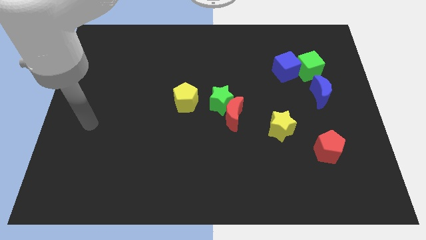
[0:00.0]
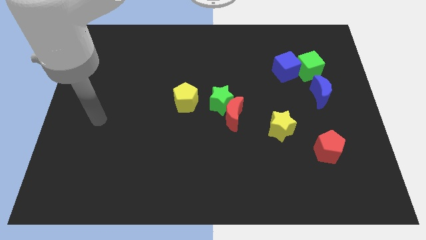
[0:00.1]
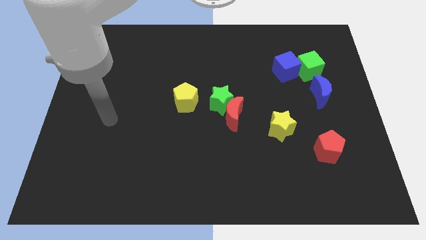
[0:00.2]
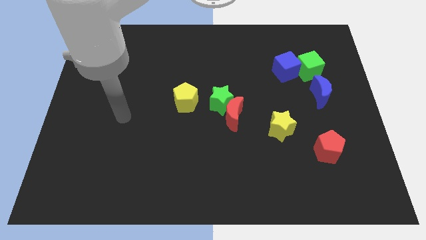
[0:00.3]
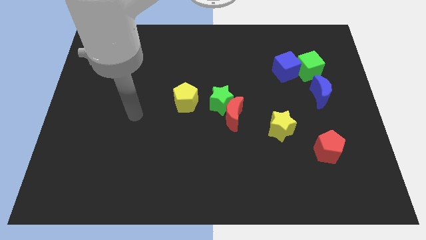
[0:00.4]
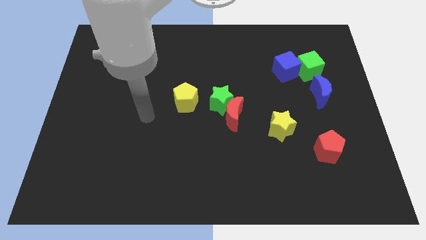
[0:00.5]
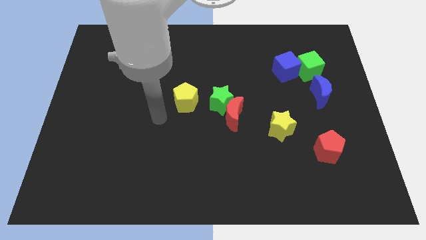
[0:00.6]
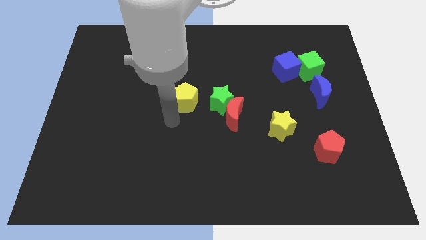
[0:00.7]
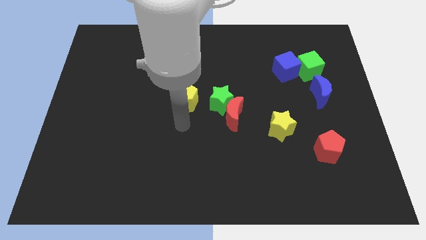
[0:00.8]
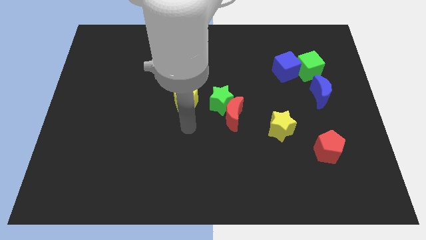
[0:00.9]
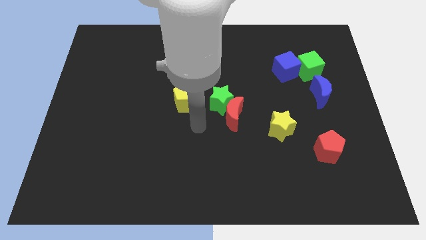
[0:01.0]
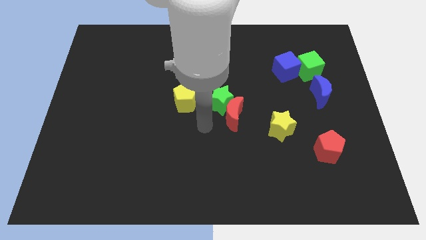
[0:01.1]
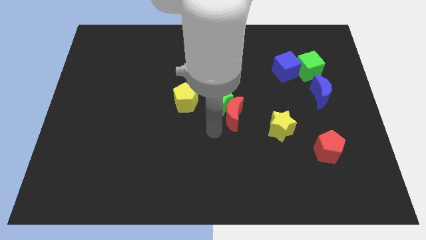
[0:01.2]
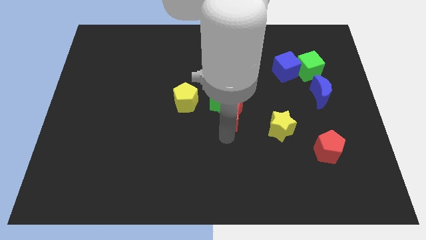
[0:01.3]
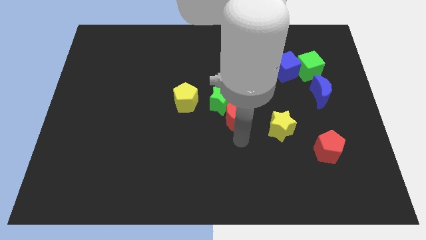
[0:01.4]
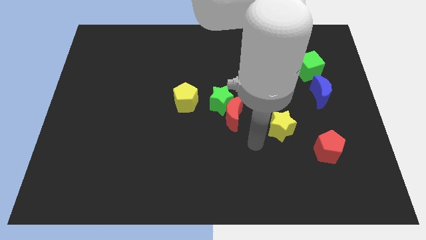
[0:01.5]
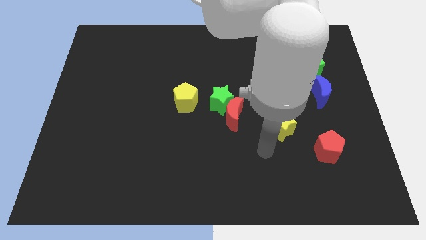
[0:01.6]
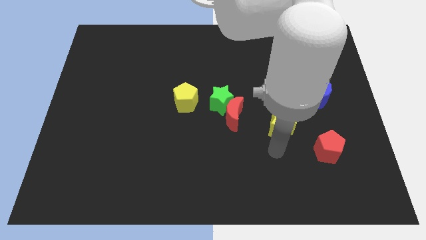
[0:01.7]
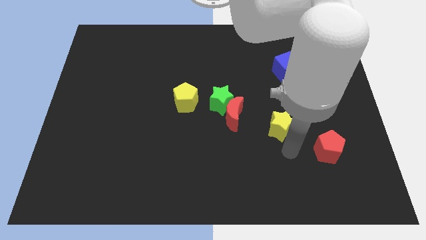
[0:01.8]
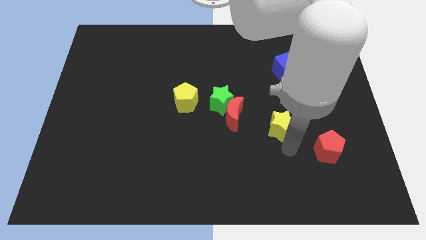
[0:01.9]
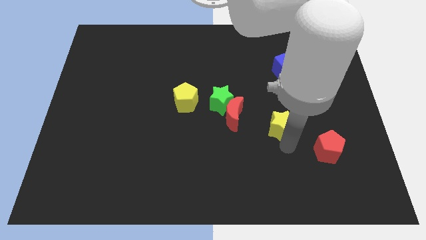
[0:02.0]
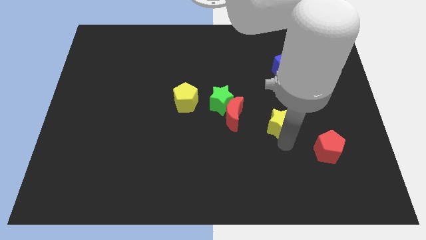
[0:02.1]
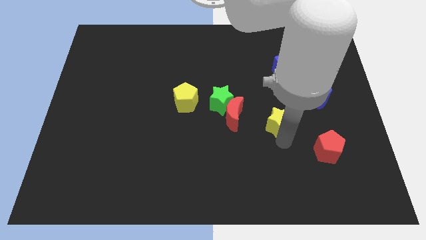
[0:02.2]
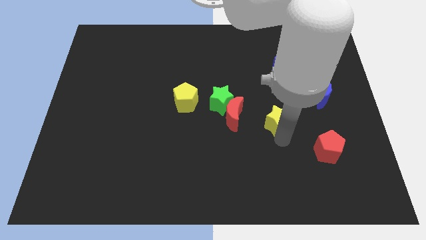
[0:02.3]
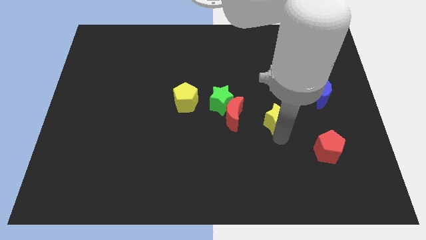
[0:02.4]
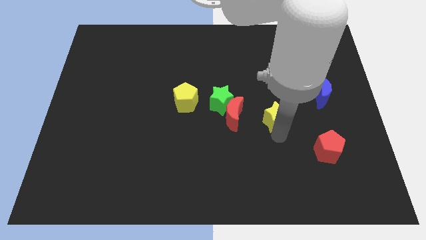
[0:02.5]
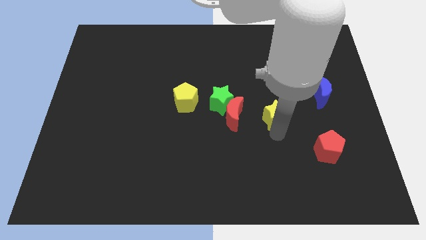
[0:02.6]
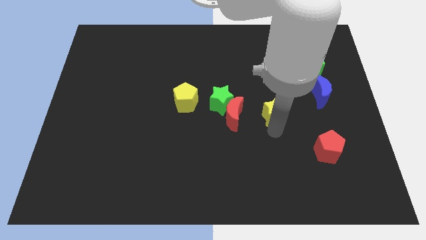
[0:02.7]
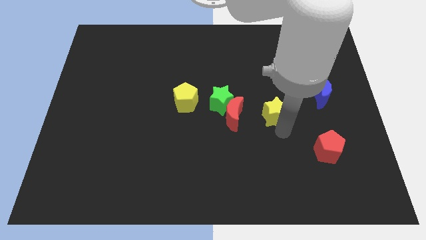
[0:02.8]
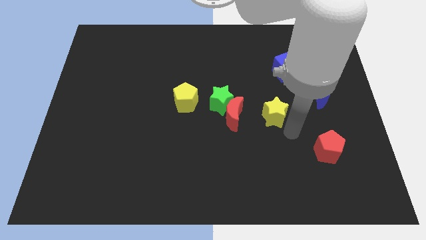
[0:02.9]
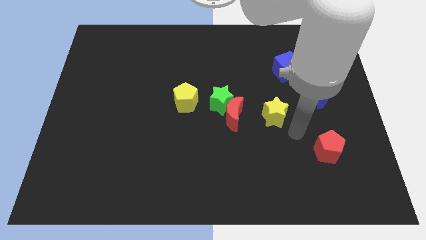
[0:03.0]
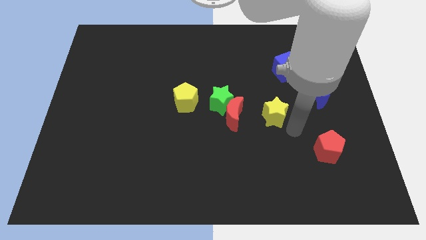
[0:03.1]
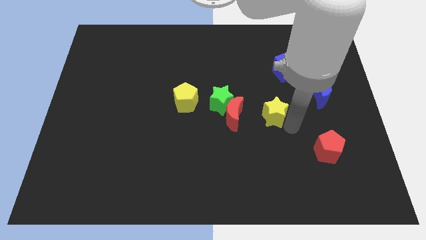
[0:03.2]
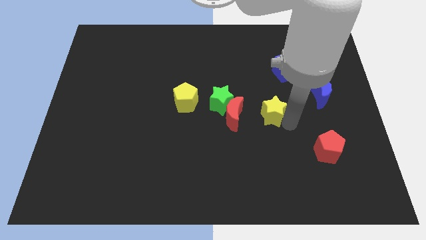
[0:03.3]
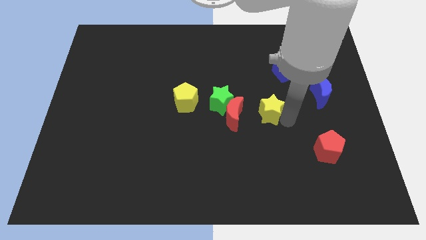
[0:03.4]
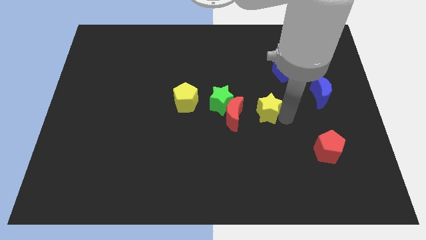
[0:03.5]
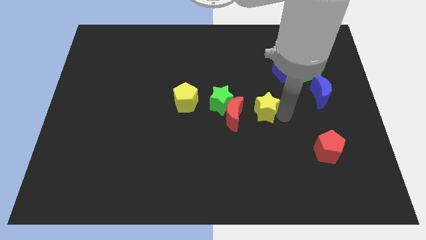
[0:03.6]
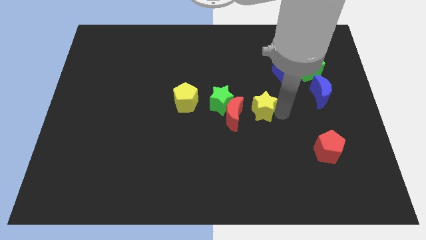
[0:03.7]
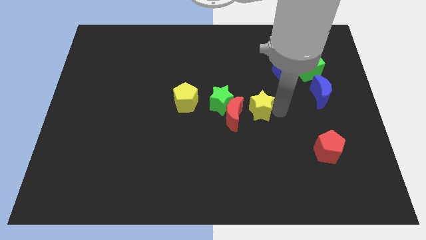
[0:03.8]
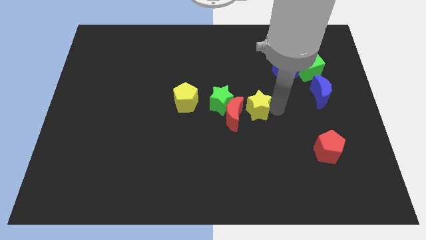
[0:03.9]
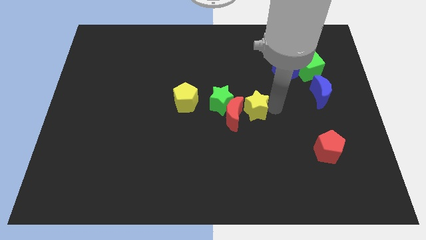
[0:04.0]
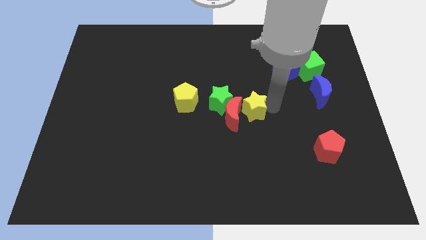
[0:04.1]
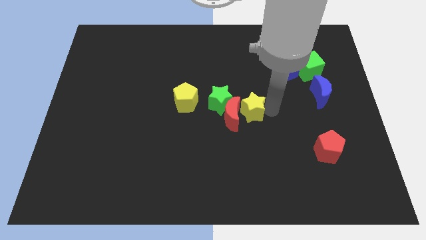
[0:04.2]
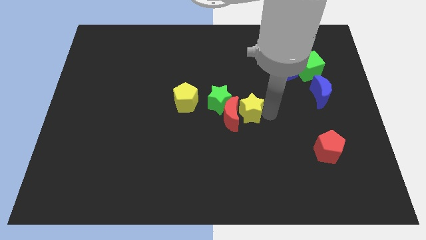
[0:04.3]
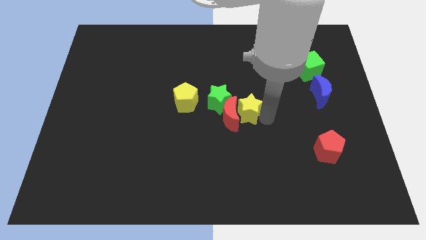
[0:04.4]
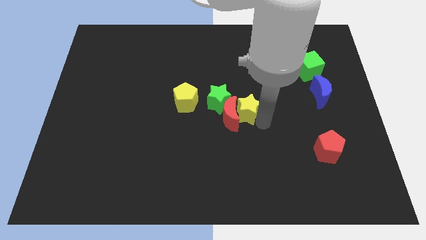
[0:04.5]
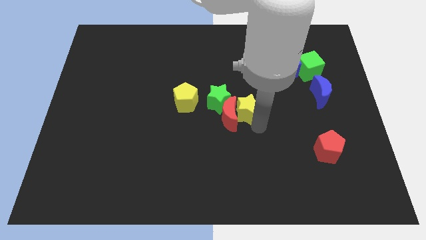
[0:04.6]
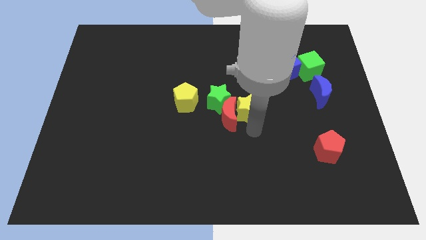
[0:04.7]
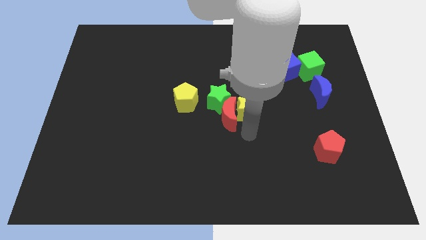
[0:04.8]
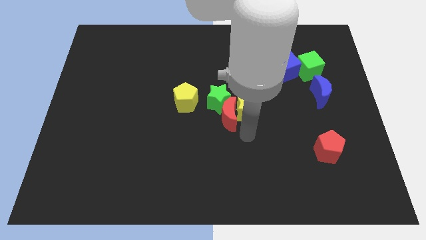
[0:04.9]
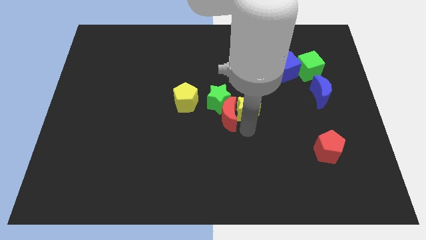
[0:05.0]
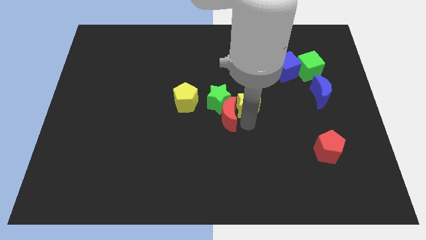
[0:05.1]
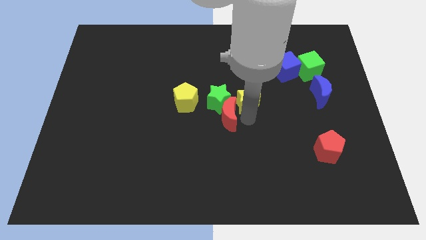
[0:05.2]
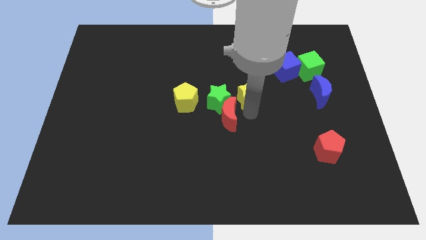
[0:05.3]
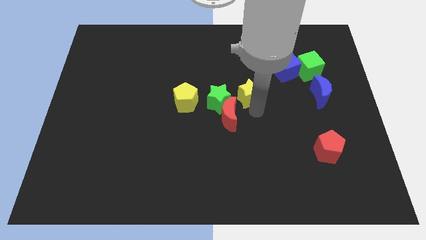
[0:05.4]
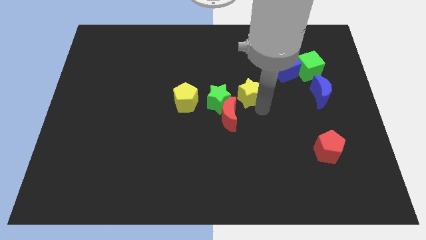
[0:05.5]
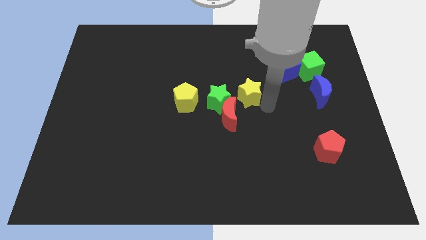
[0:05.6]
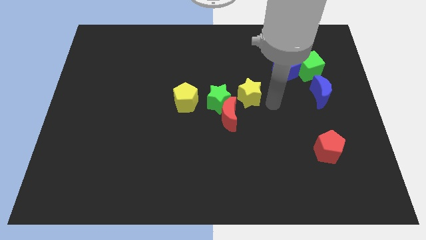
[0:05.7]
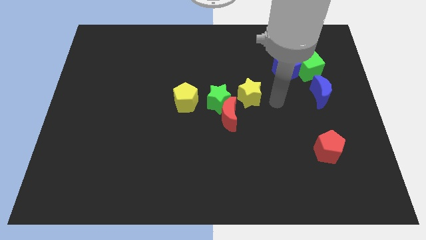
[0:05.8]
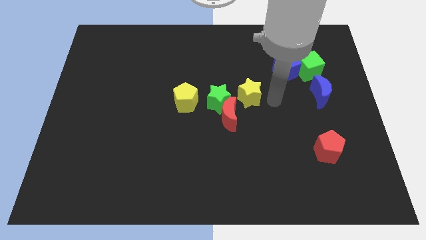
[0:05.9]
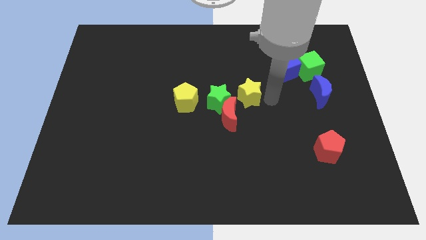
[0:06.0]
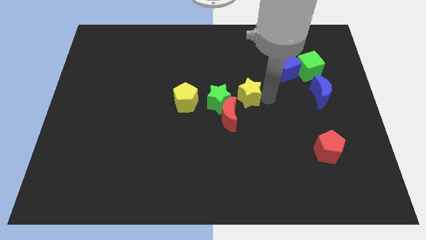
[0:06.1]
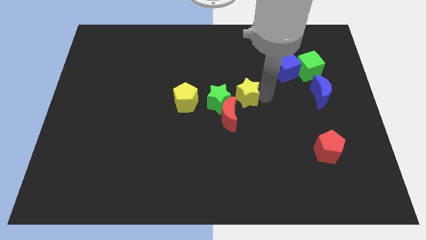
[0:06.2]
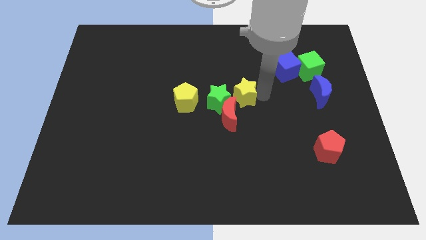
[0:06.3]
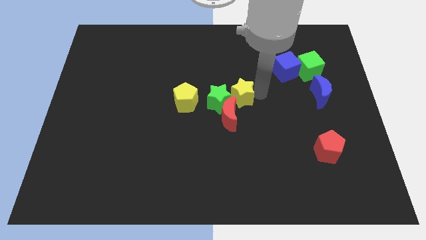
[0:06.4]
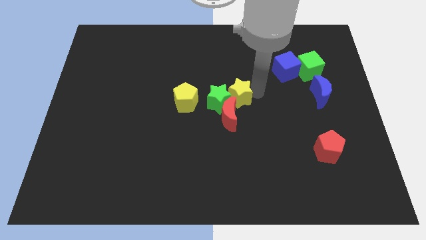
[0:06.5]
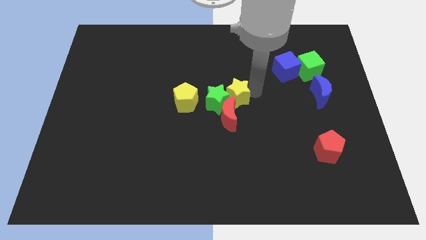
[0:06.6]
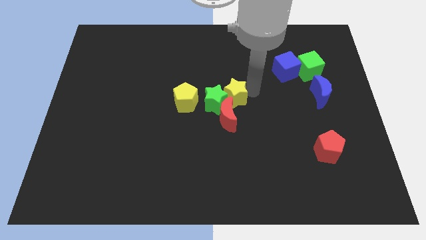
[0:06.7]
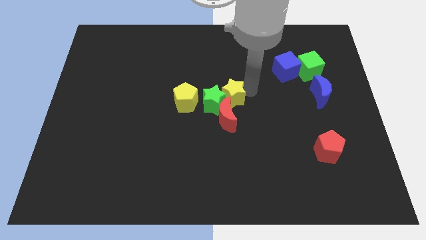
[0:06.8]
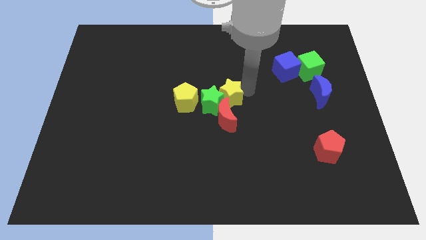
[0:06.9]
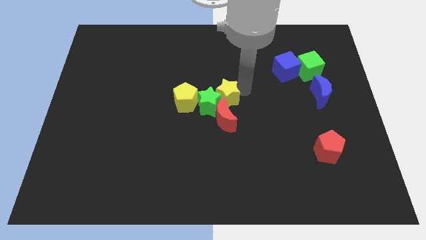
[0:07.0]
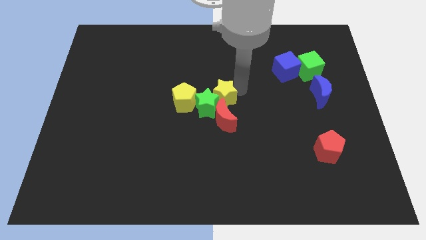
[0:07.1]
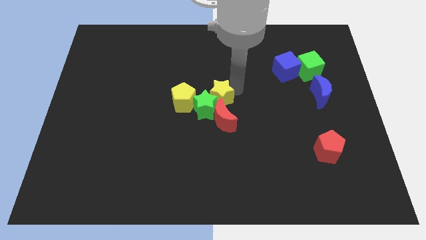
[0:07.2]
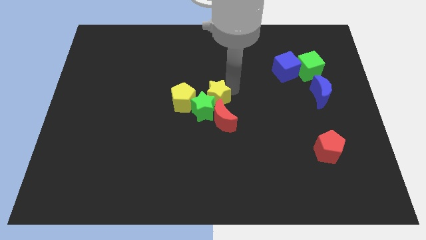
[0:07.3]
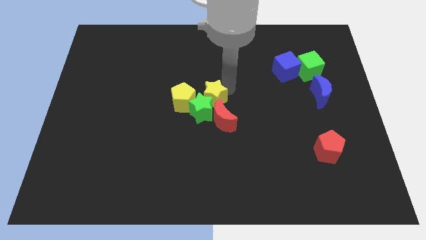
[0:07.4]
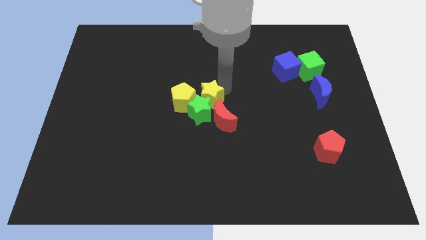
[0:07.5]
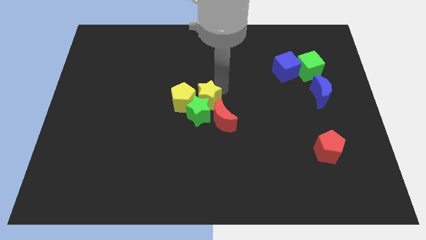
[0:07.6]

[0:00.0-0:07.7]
put the yellow star diagonally up and to the left of the green star
